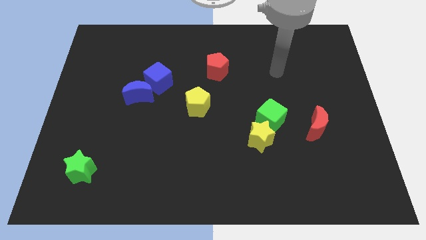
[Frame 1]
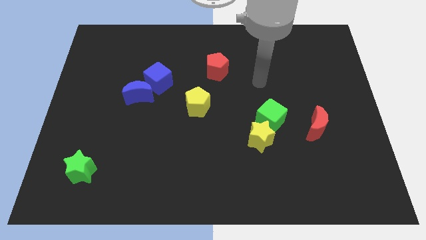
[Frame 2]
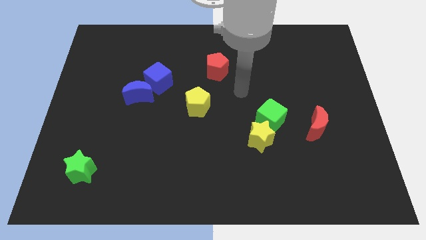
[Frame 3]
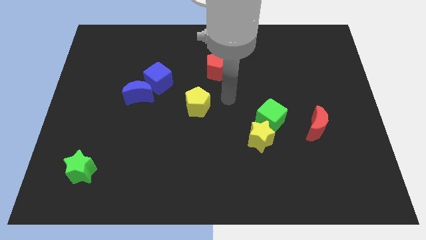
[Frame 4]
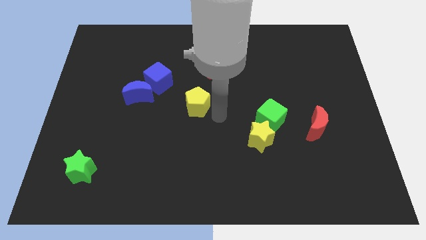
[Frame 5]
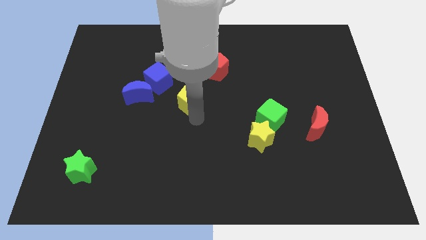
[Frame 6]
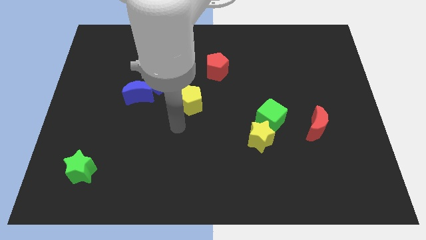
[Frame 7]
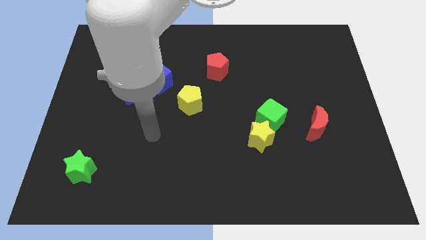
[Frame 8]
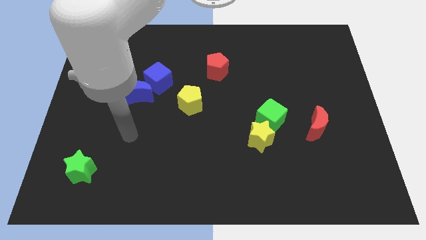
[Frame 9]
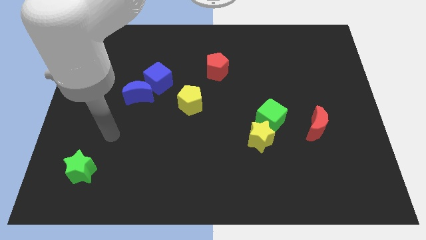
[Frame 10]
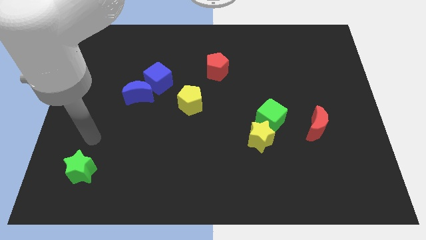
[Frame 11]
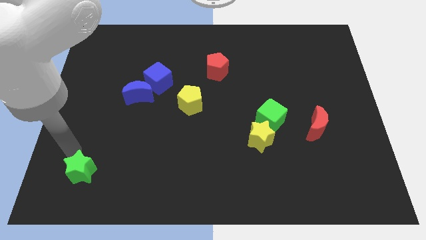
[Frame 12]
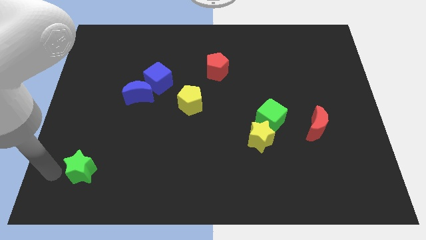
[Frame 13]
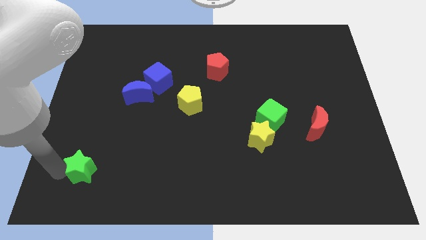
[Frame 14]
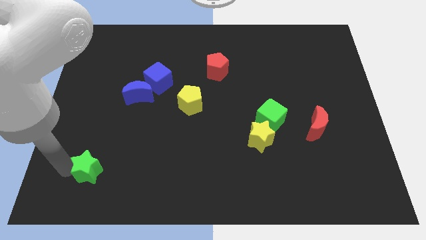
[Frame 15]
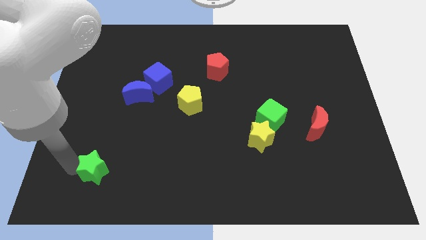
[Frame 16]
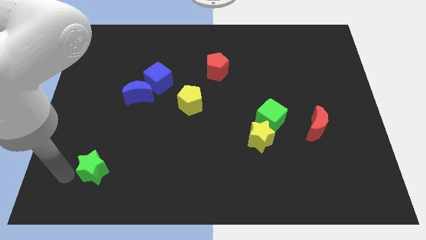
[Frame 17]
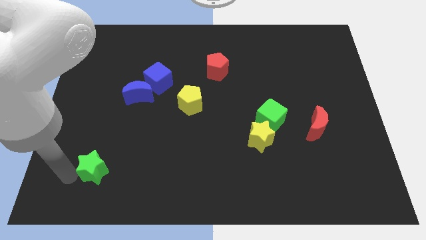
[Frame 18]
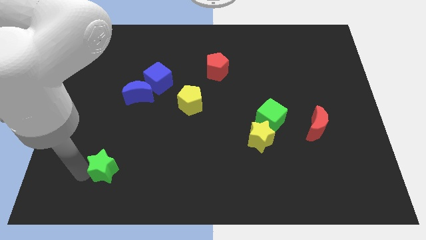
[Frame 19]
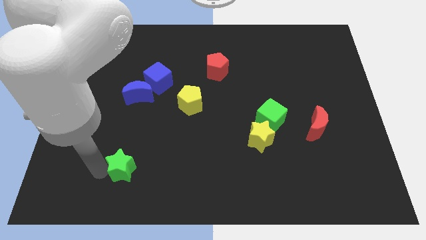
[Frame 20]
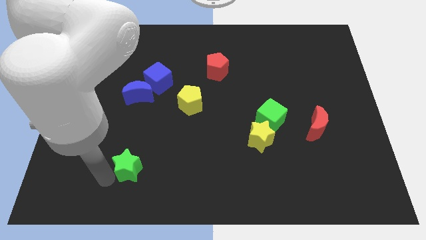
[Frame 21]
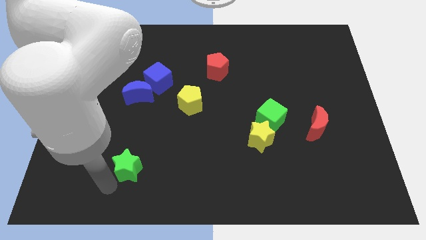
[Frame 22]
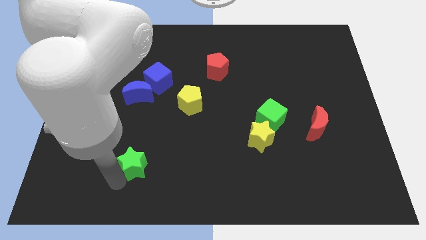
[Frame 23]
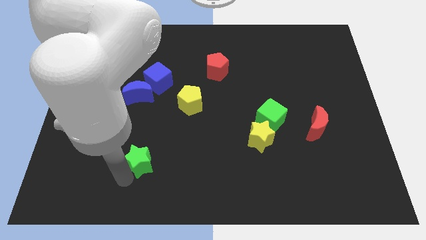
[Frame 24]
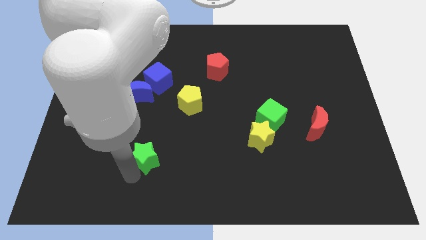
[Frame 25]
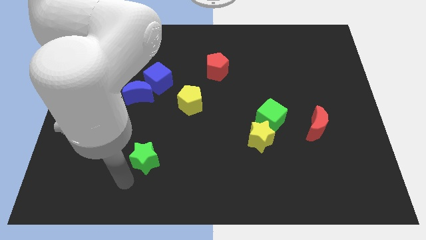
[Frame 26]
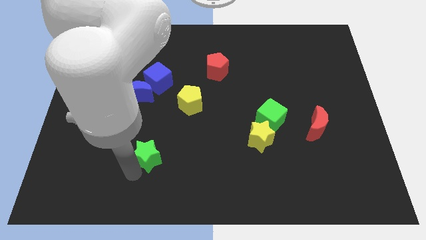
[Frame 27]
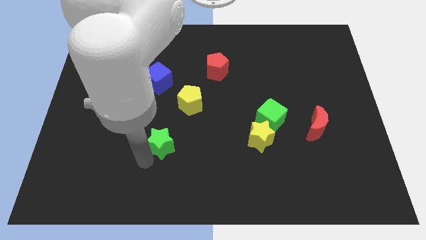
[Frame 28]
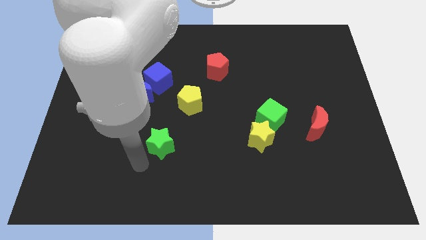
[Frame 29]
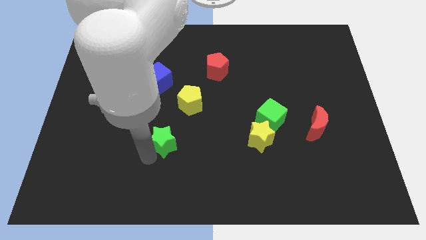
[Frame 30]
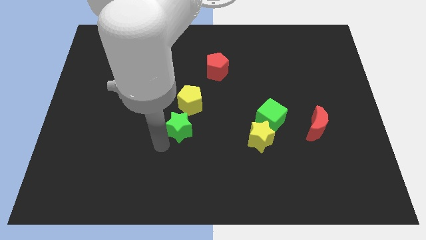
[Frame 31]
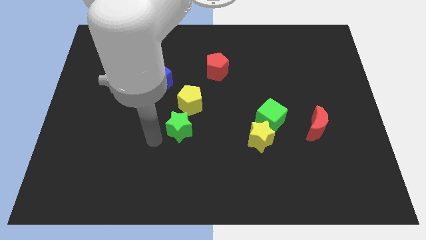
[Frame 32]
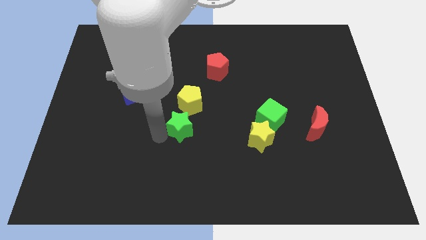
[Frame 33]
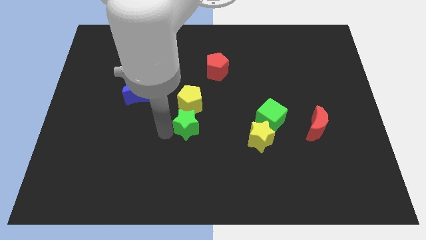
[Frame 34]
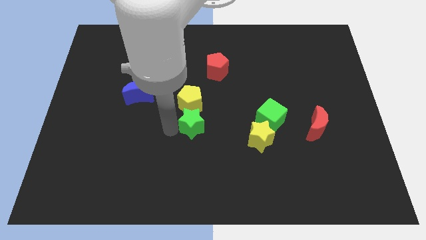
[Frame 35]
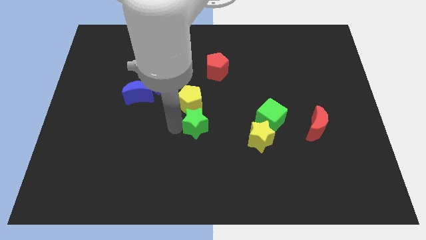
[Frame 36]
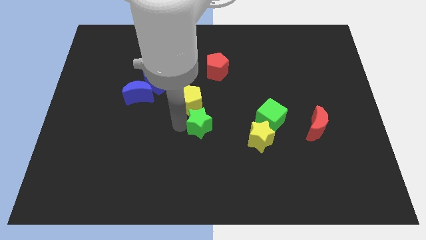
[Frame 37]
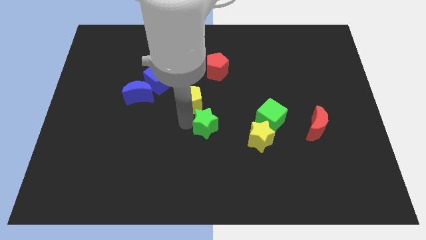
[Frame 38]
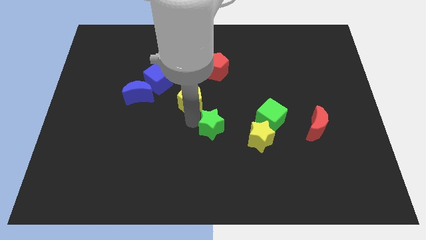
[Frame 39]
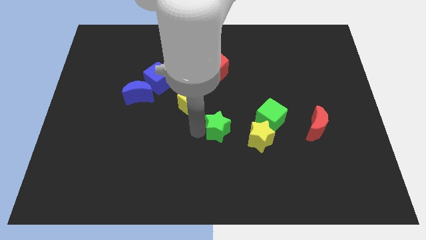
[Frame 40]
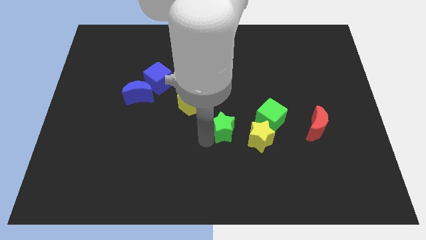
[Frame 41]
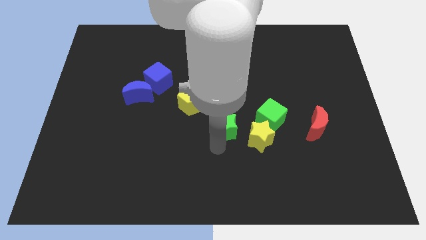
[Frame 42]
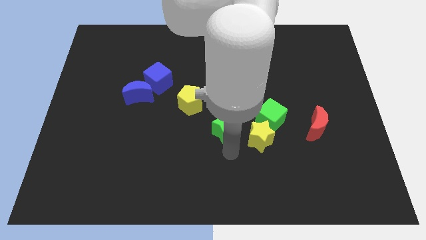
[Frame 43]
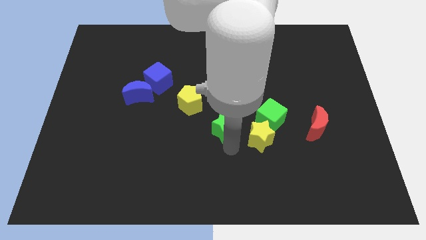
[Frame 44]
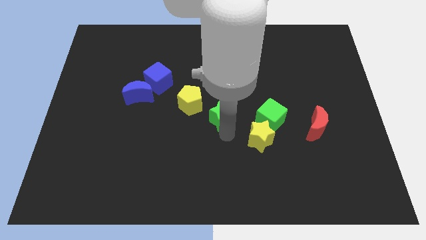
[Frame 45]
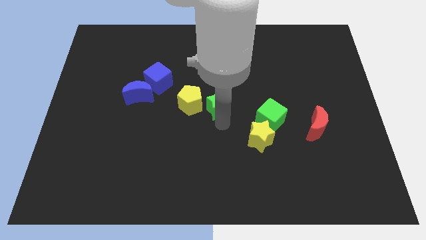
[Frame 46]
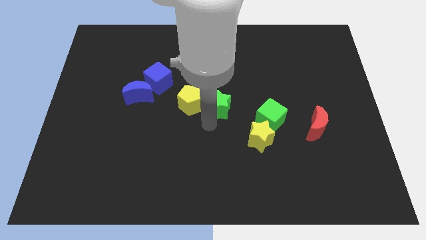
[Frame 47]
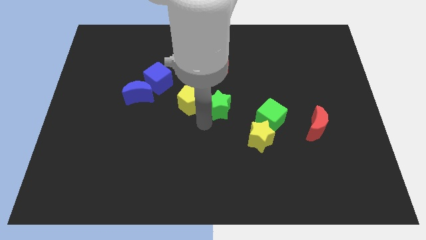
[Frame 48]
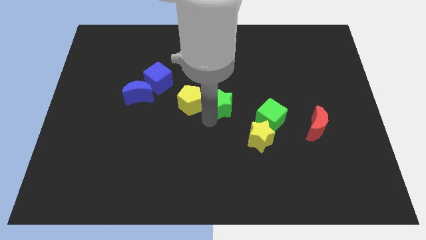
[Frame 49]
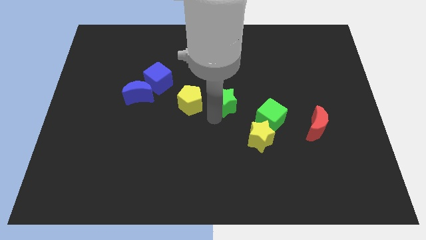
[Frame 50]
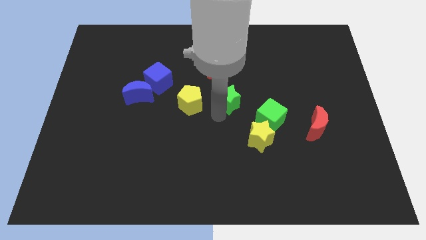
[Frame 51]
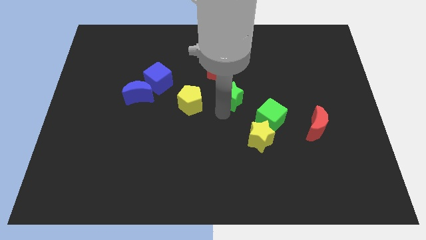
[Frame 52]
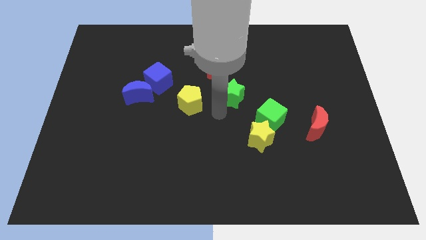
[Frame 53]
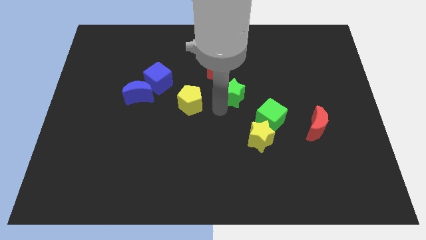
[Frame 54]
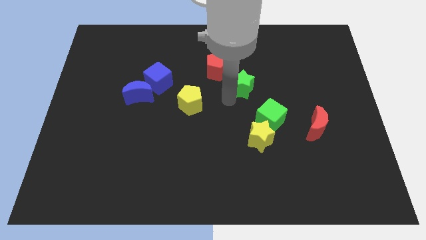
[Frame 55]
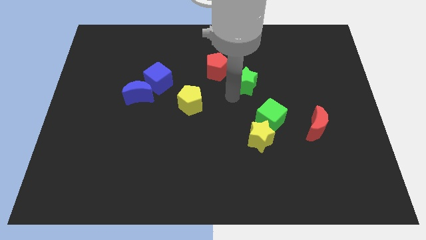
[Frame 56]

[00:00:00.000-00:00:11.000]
push the green star to the right of the red pentagon

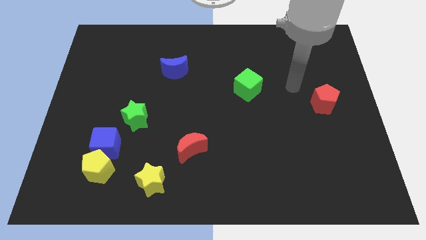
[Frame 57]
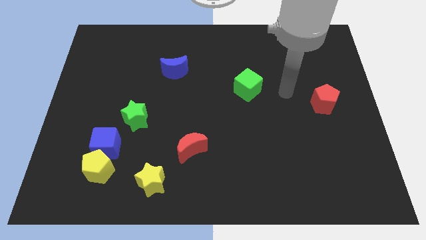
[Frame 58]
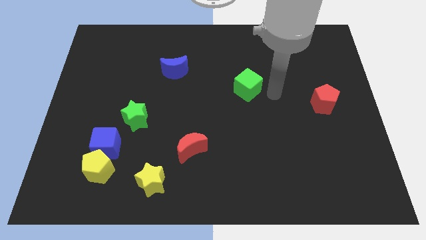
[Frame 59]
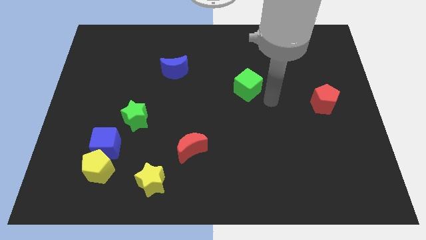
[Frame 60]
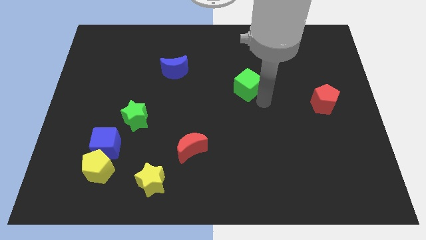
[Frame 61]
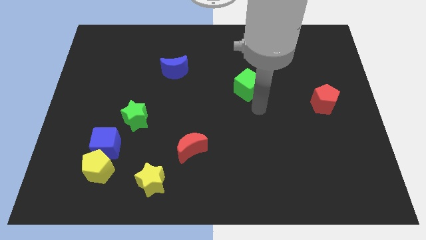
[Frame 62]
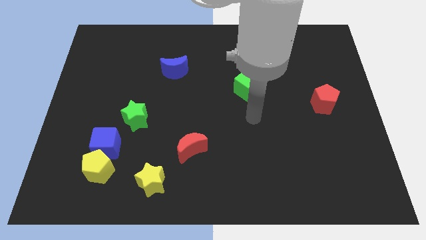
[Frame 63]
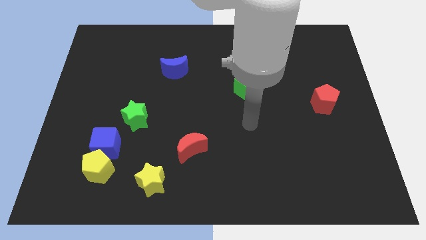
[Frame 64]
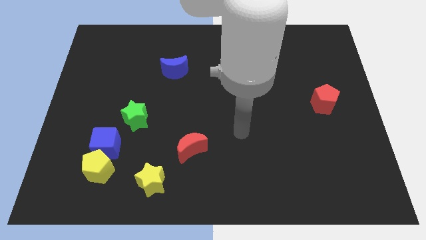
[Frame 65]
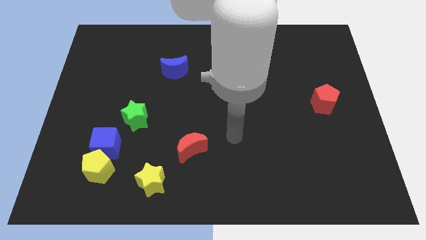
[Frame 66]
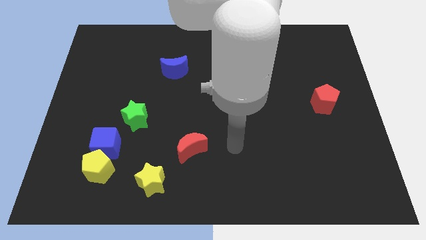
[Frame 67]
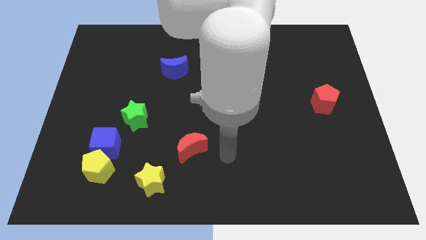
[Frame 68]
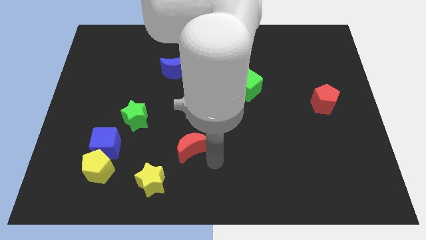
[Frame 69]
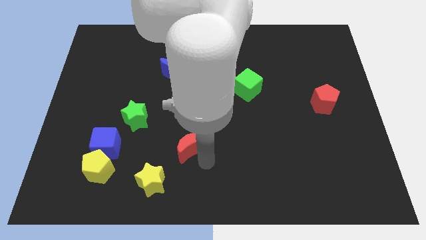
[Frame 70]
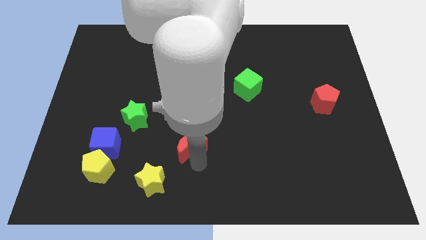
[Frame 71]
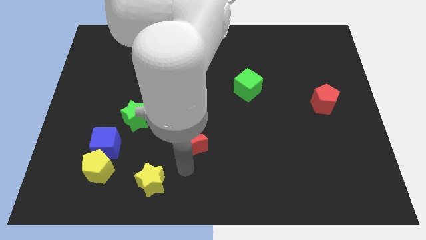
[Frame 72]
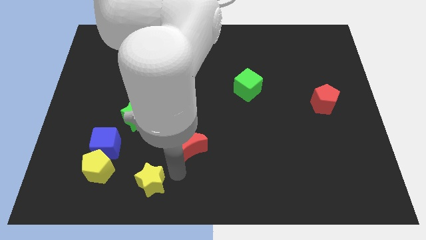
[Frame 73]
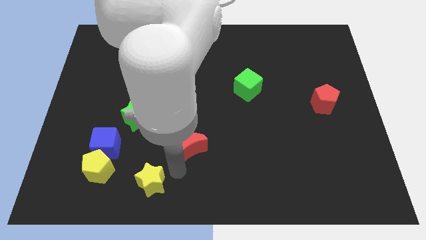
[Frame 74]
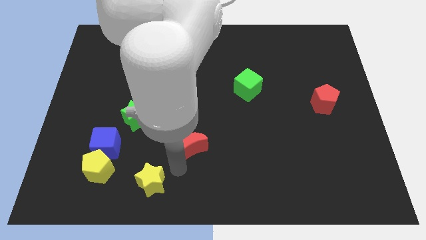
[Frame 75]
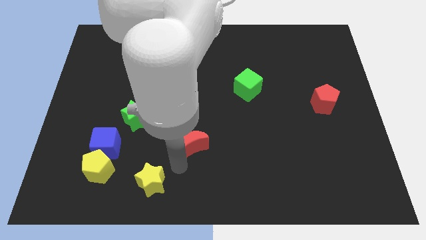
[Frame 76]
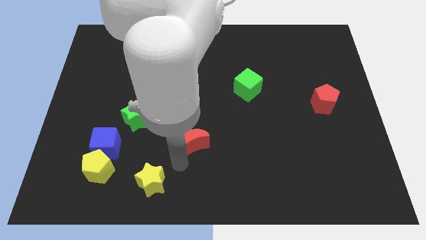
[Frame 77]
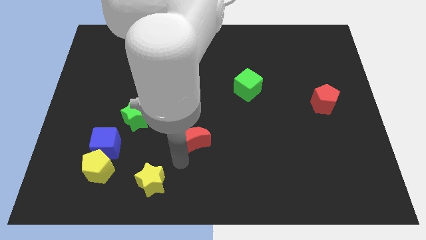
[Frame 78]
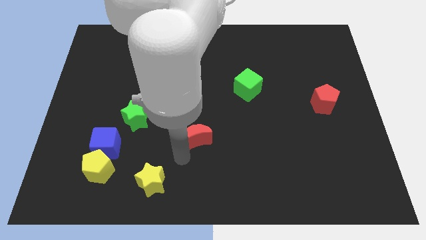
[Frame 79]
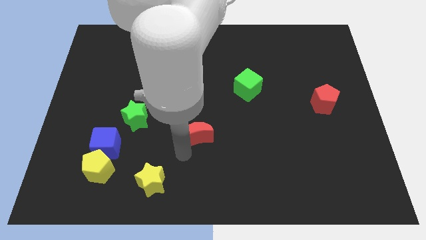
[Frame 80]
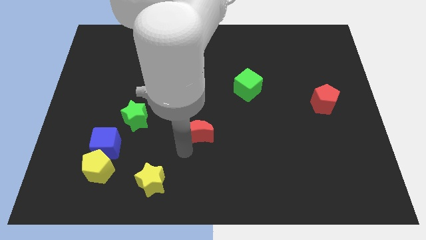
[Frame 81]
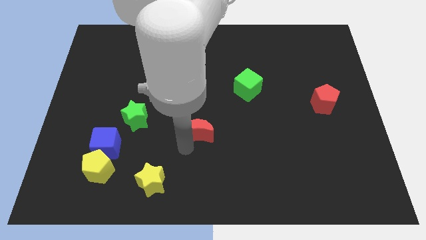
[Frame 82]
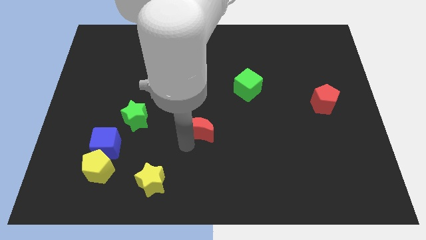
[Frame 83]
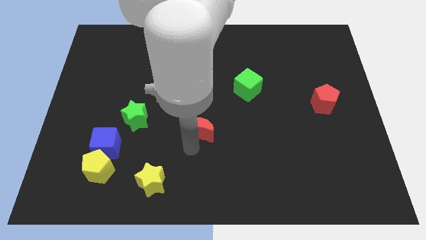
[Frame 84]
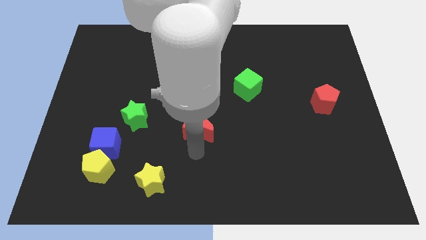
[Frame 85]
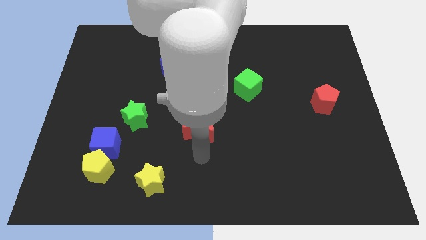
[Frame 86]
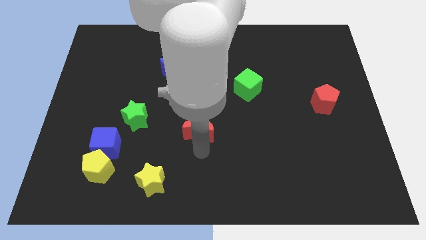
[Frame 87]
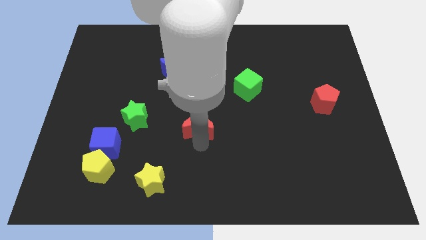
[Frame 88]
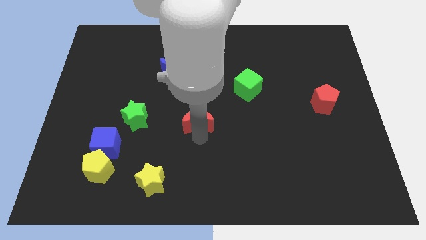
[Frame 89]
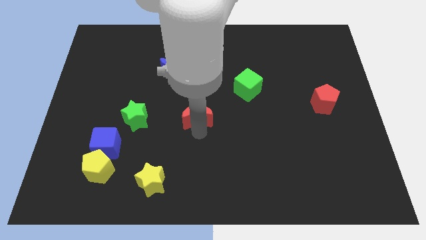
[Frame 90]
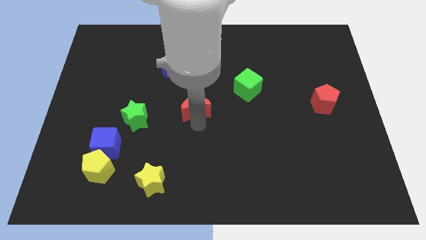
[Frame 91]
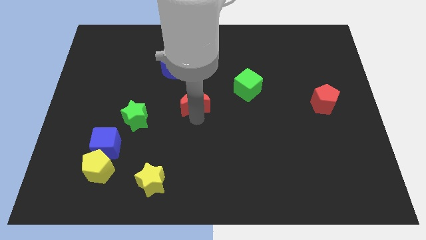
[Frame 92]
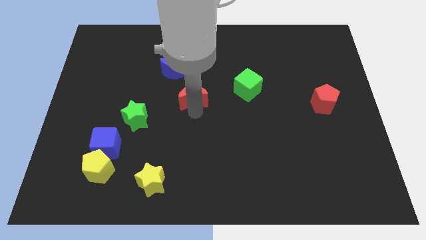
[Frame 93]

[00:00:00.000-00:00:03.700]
put the red moon to the bottom right side of the blue moon
